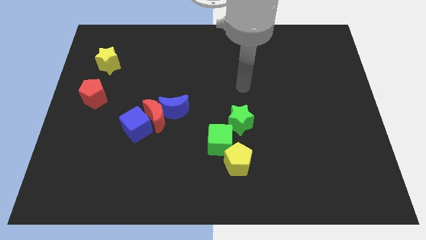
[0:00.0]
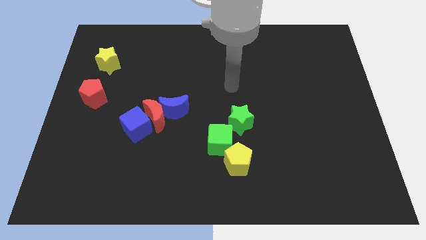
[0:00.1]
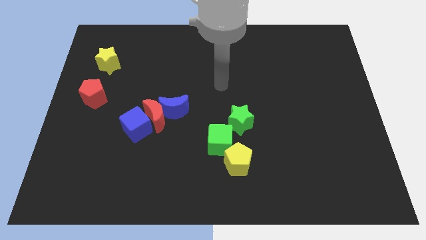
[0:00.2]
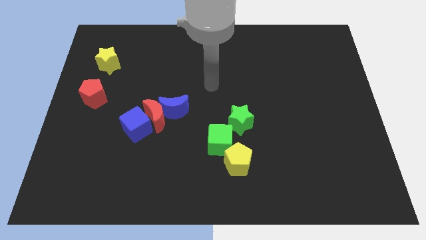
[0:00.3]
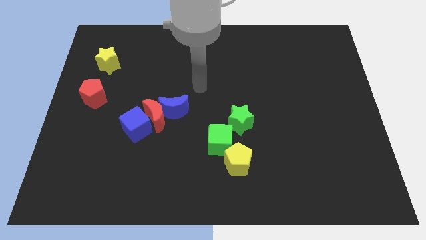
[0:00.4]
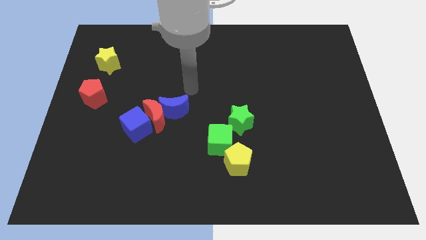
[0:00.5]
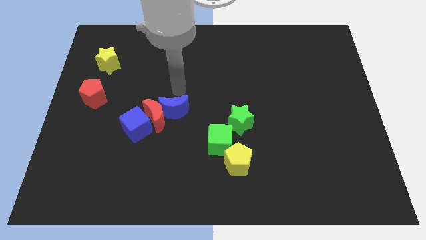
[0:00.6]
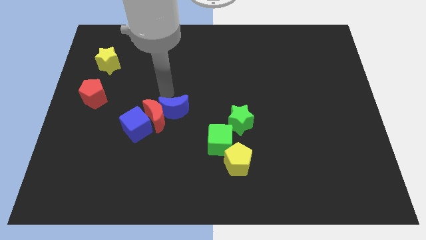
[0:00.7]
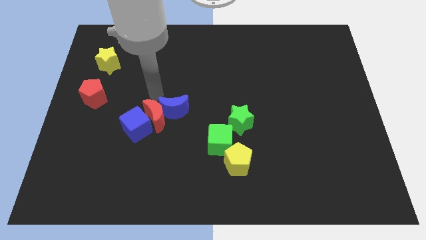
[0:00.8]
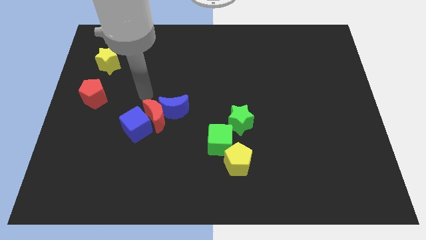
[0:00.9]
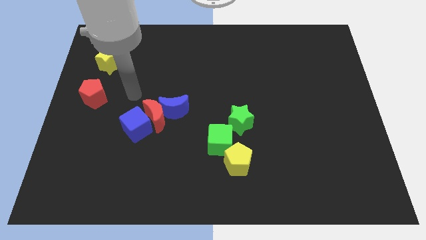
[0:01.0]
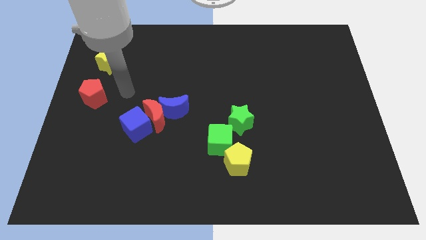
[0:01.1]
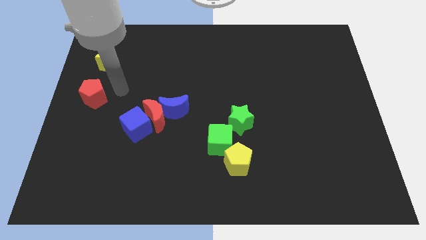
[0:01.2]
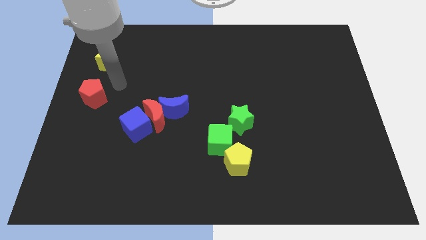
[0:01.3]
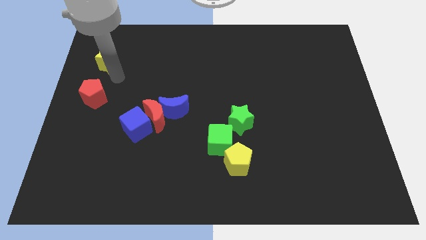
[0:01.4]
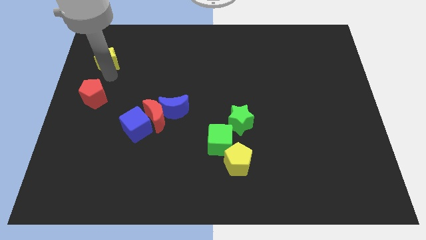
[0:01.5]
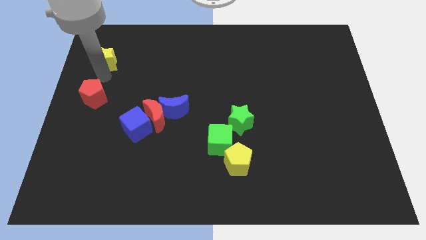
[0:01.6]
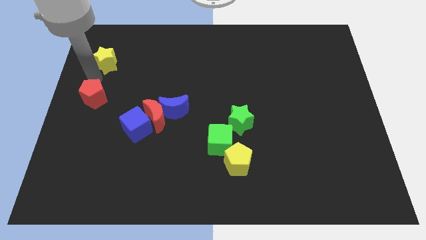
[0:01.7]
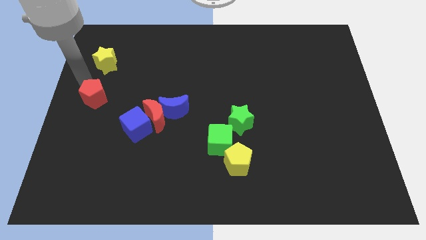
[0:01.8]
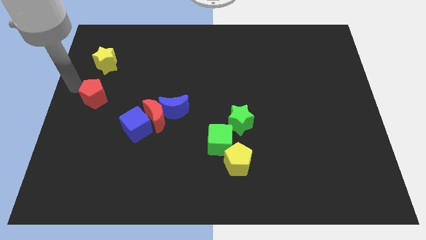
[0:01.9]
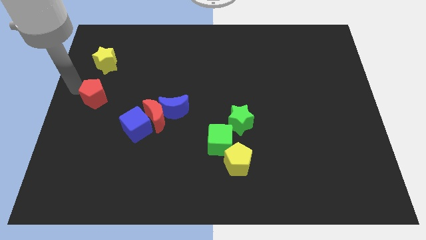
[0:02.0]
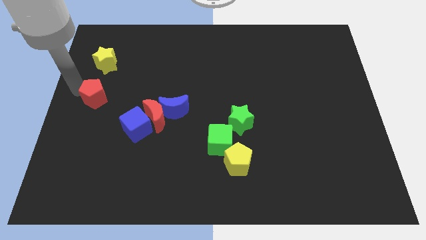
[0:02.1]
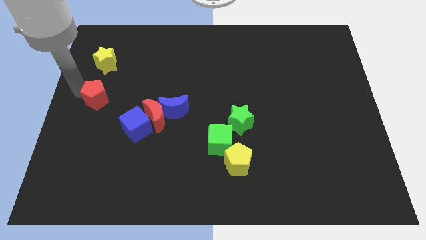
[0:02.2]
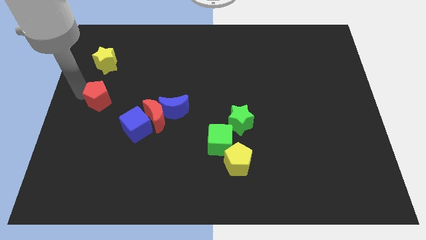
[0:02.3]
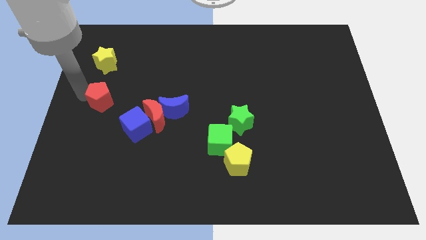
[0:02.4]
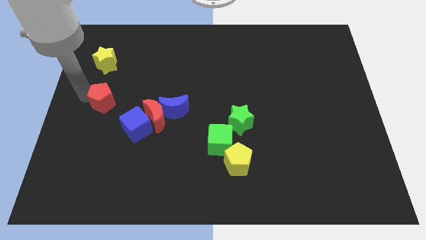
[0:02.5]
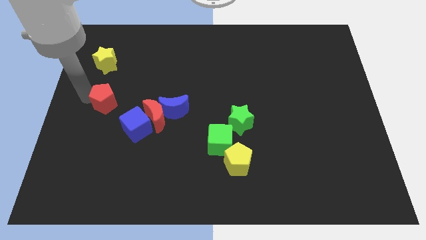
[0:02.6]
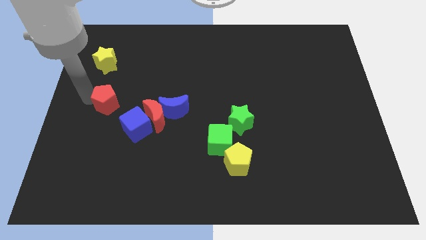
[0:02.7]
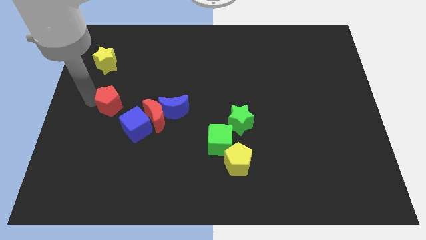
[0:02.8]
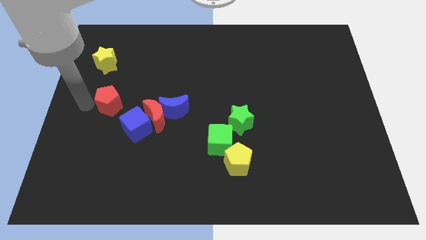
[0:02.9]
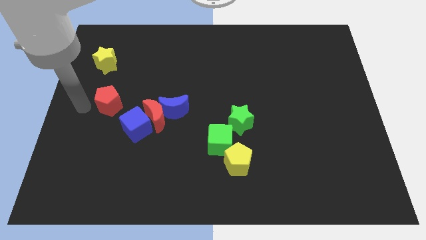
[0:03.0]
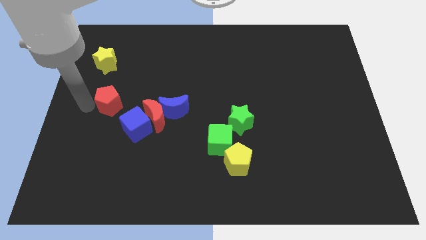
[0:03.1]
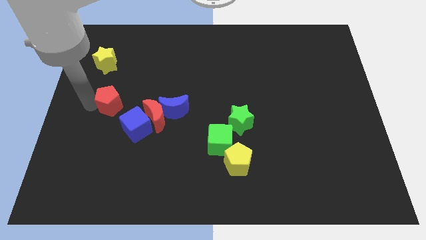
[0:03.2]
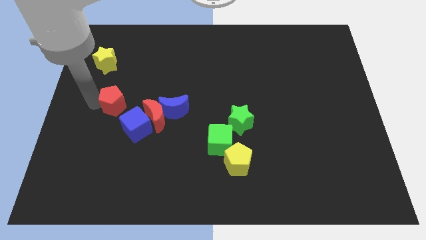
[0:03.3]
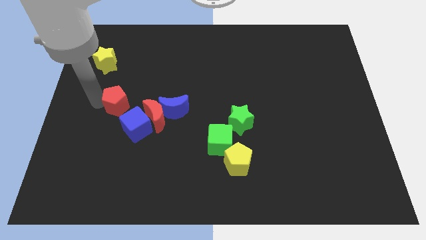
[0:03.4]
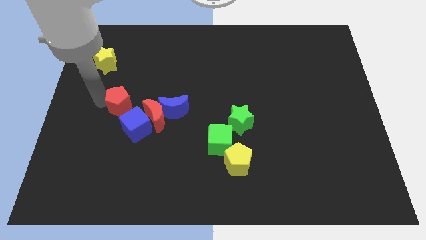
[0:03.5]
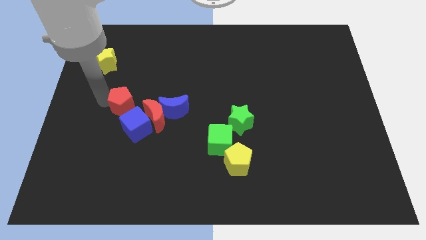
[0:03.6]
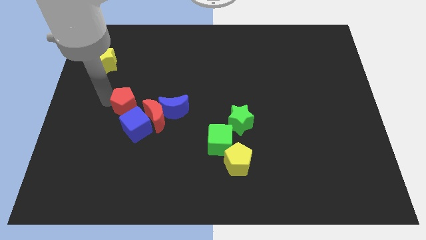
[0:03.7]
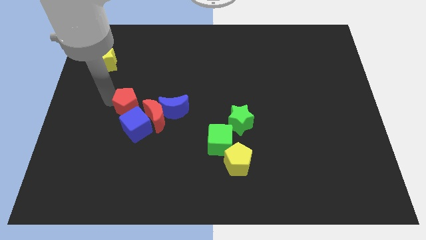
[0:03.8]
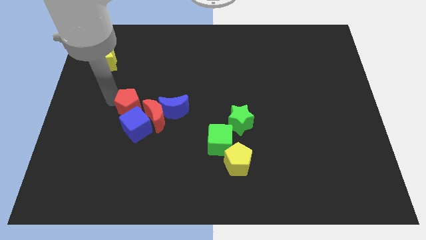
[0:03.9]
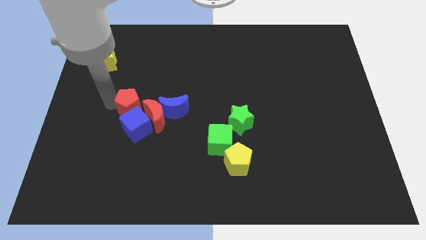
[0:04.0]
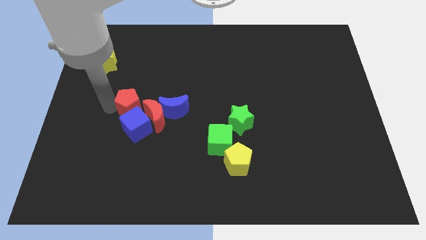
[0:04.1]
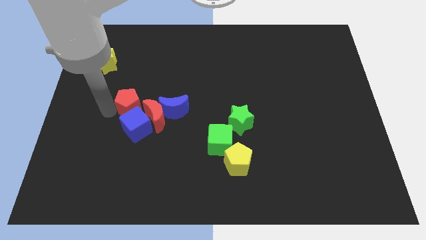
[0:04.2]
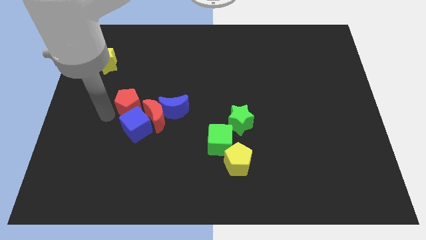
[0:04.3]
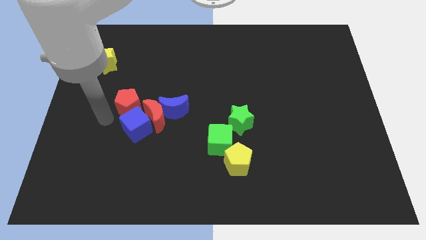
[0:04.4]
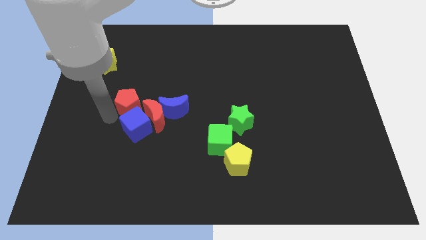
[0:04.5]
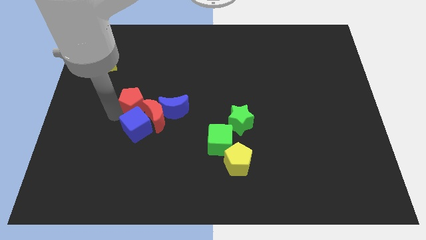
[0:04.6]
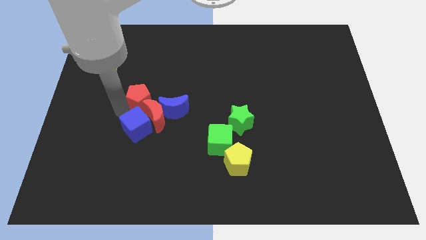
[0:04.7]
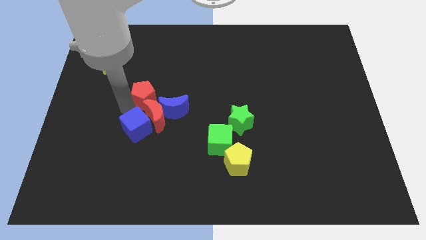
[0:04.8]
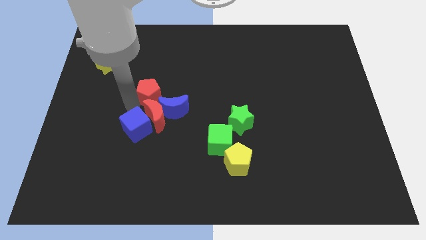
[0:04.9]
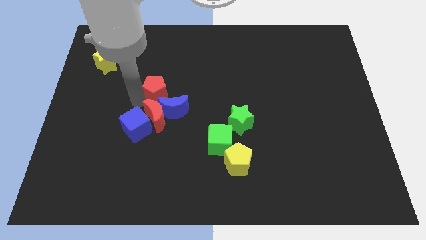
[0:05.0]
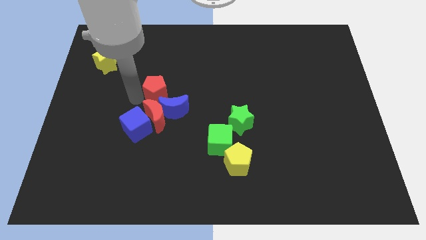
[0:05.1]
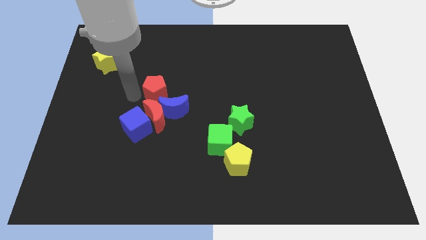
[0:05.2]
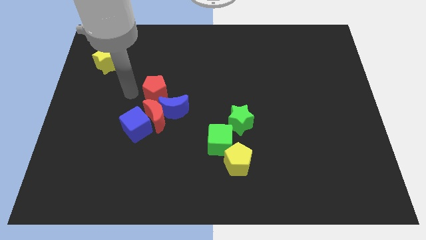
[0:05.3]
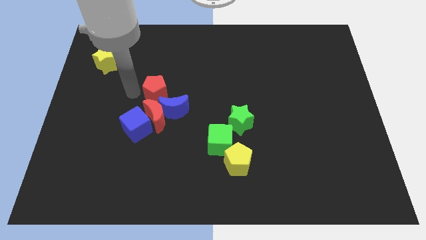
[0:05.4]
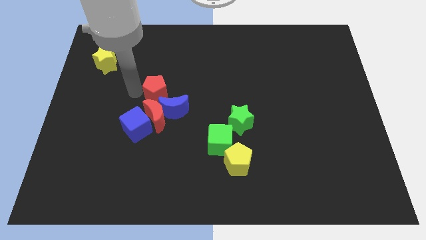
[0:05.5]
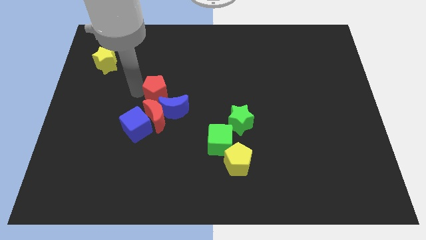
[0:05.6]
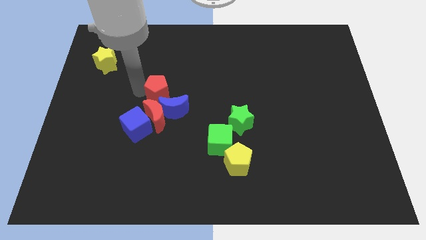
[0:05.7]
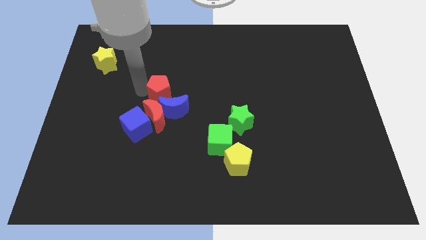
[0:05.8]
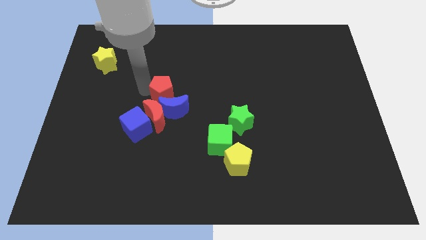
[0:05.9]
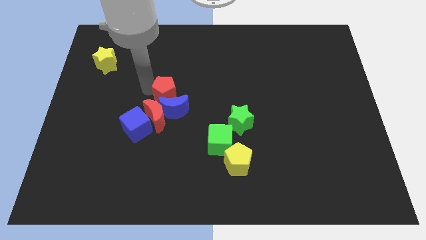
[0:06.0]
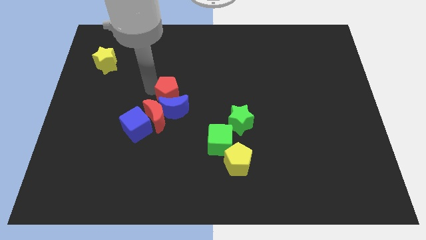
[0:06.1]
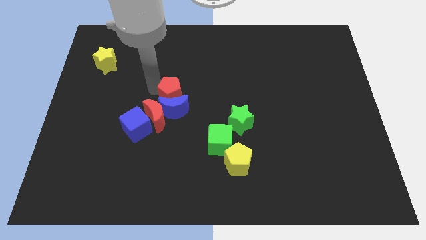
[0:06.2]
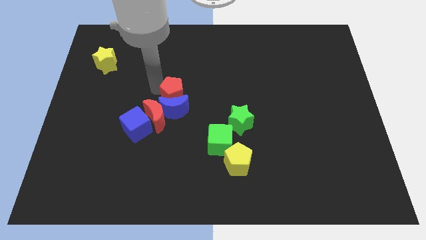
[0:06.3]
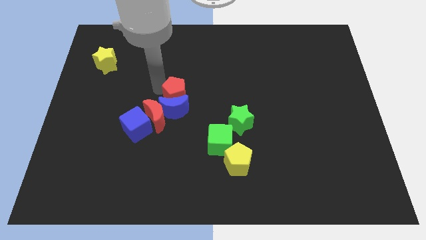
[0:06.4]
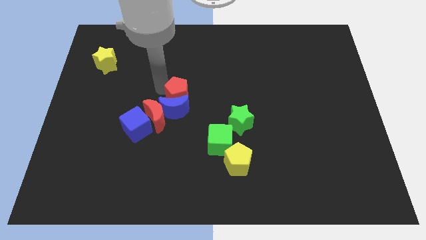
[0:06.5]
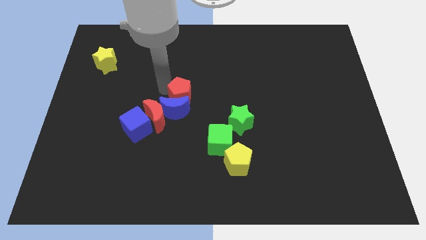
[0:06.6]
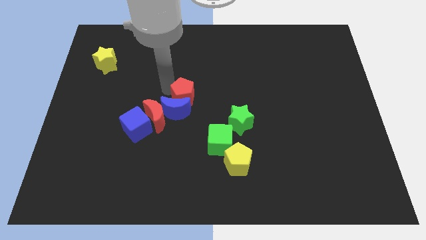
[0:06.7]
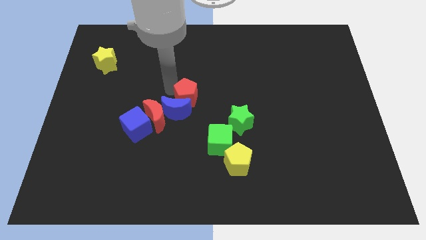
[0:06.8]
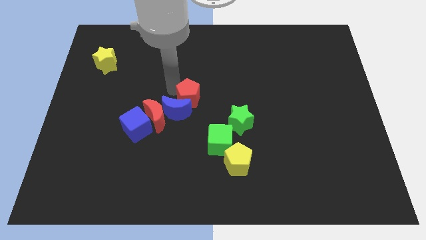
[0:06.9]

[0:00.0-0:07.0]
move the red pentagon just right of the blue moon

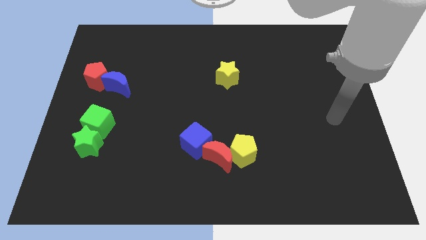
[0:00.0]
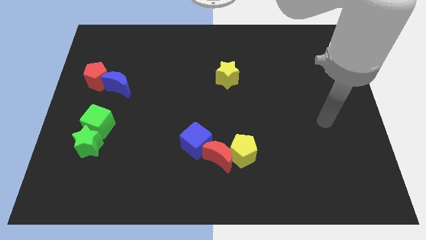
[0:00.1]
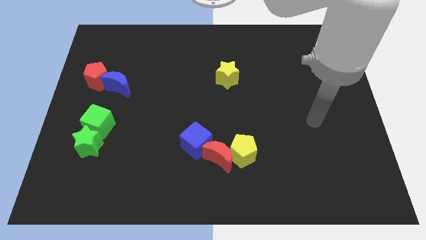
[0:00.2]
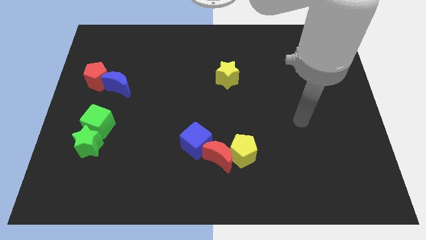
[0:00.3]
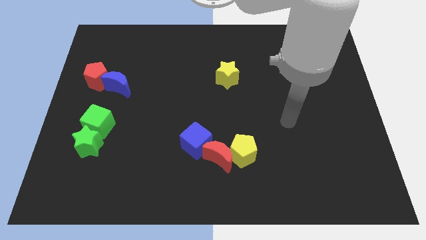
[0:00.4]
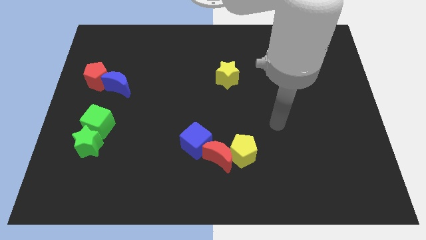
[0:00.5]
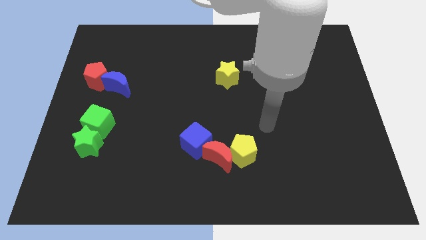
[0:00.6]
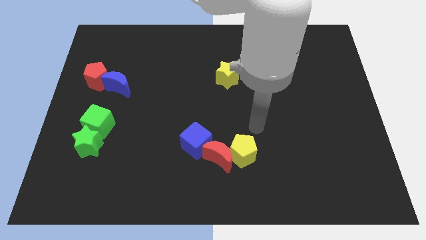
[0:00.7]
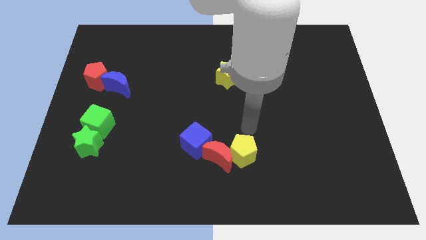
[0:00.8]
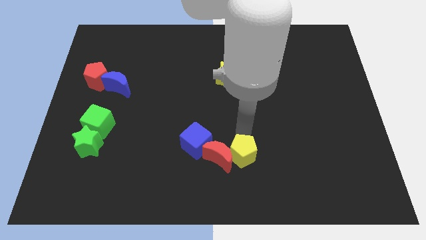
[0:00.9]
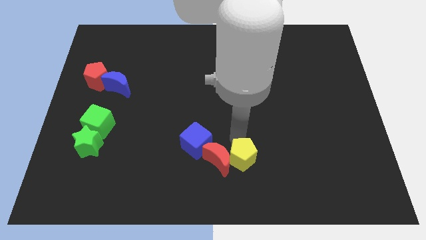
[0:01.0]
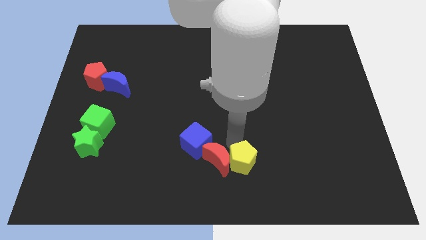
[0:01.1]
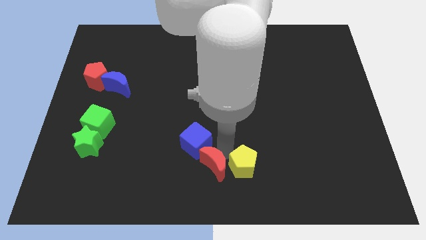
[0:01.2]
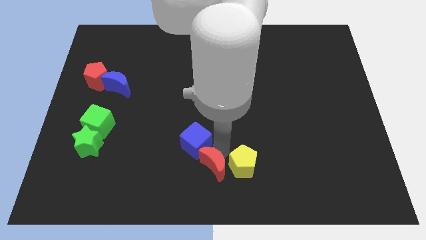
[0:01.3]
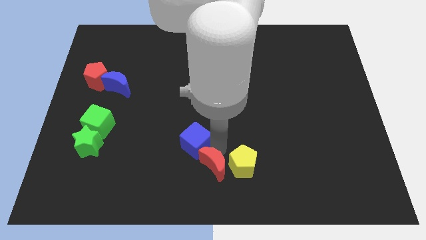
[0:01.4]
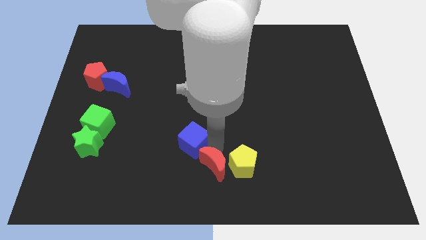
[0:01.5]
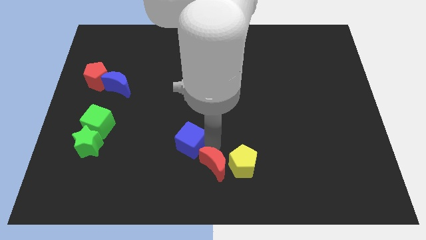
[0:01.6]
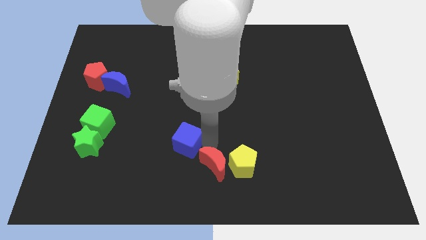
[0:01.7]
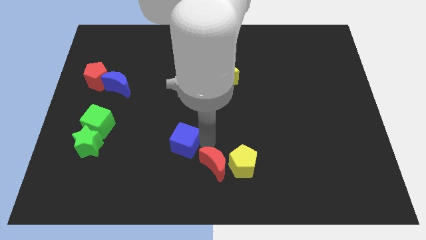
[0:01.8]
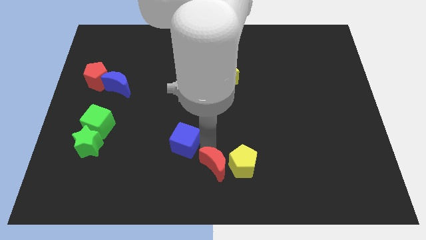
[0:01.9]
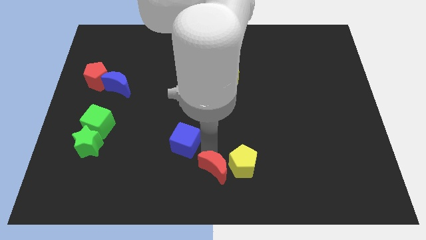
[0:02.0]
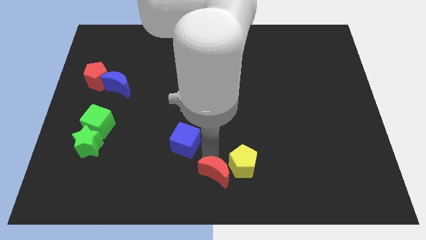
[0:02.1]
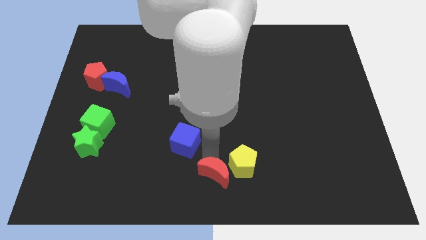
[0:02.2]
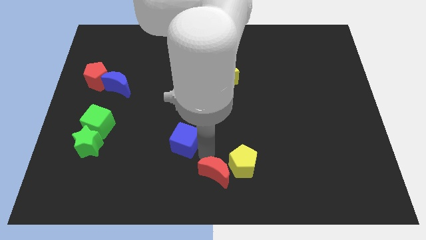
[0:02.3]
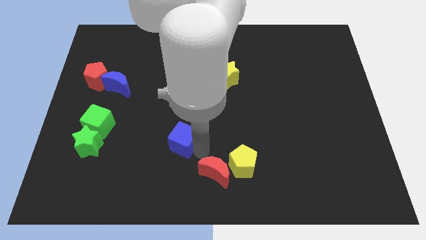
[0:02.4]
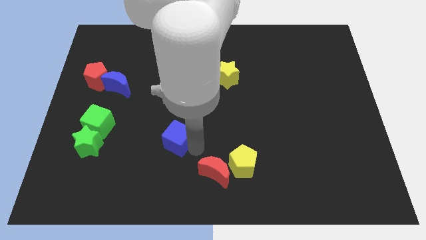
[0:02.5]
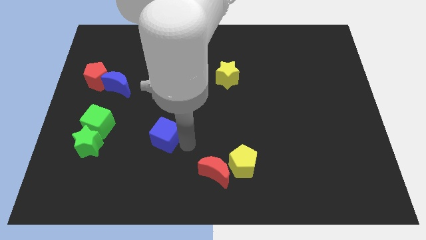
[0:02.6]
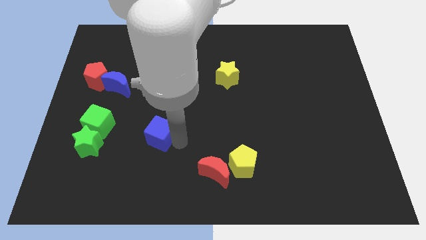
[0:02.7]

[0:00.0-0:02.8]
push the blue cube to the right of the green cube
